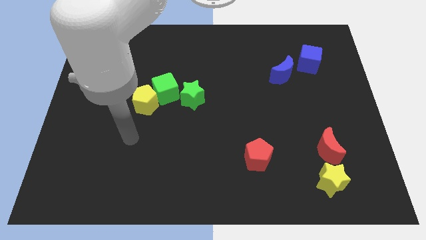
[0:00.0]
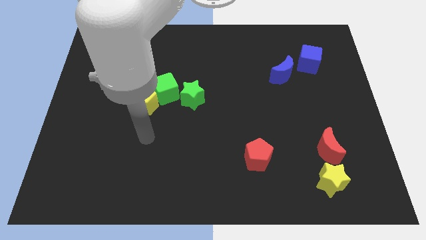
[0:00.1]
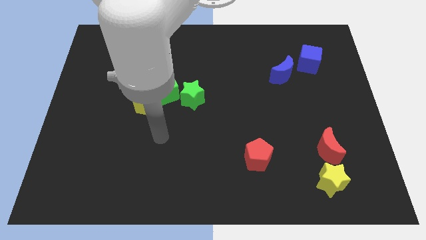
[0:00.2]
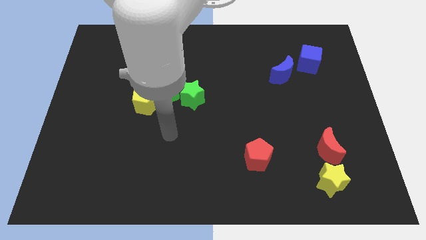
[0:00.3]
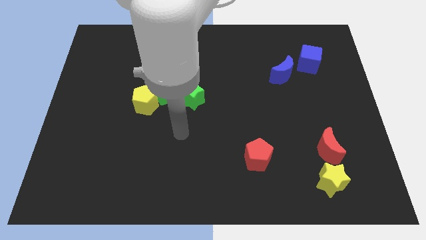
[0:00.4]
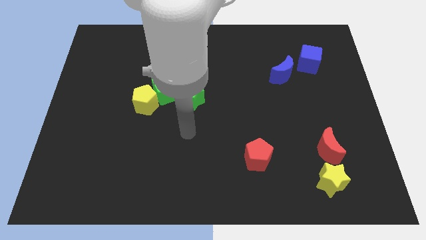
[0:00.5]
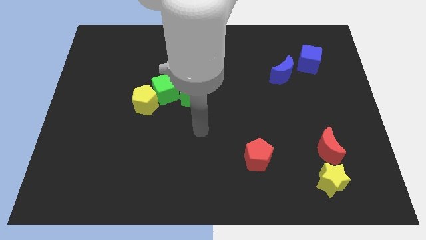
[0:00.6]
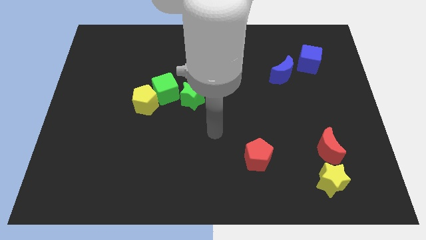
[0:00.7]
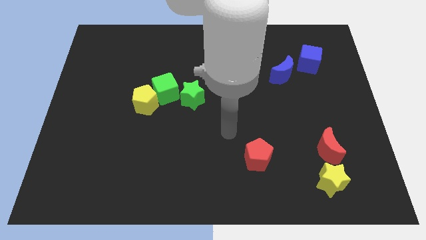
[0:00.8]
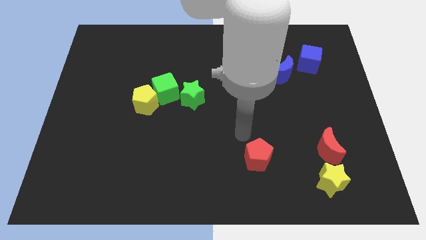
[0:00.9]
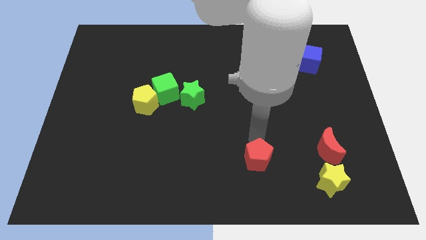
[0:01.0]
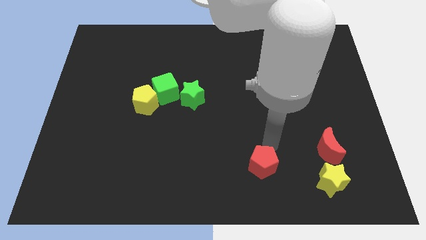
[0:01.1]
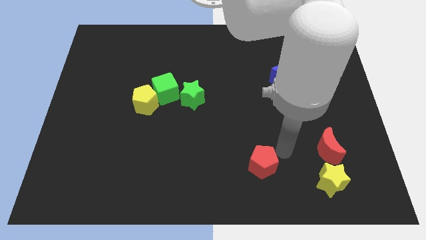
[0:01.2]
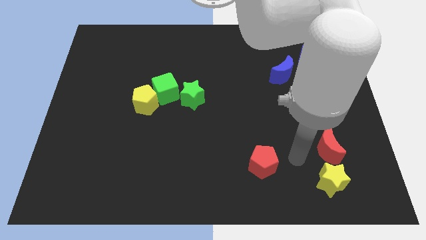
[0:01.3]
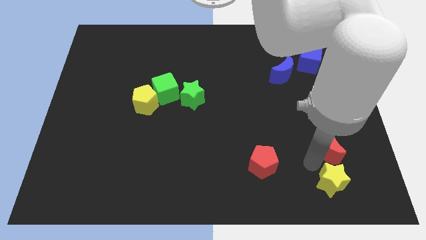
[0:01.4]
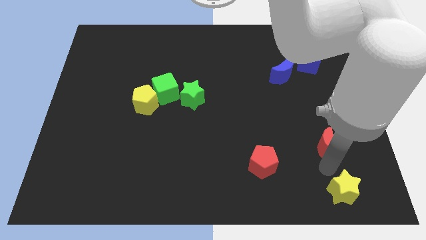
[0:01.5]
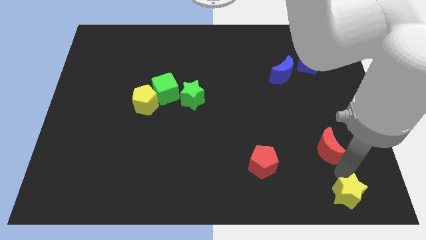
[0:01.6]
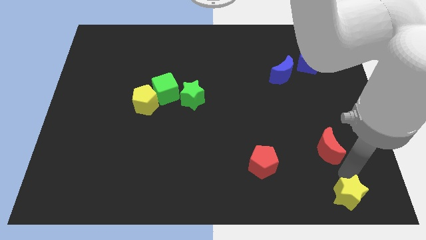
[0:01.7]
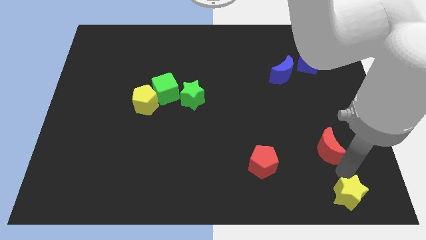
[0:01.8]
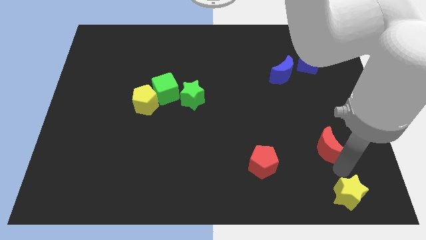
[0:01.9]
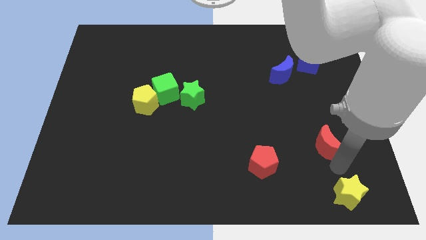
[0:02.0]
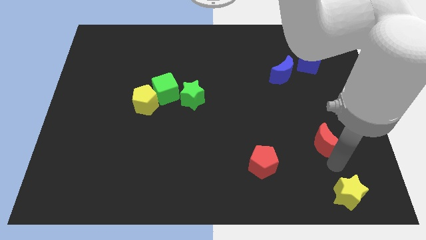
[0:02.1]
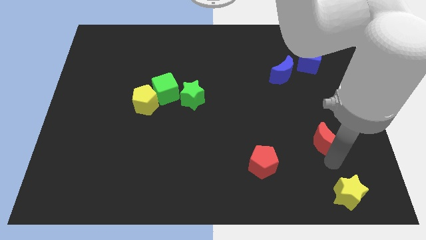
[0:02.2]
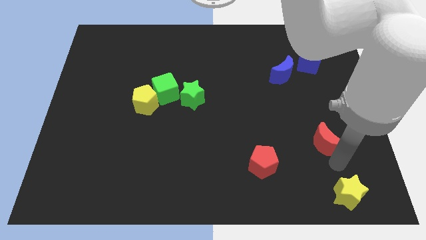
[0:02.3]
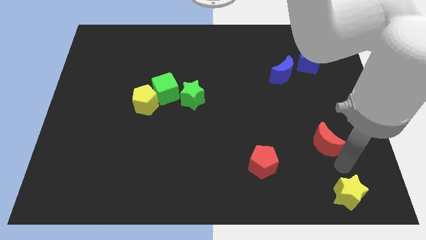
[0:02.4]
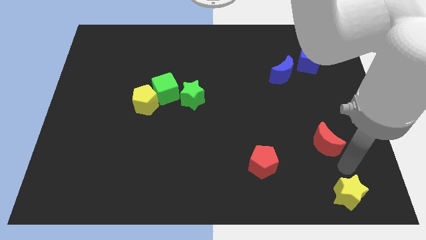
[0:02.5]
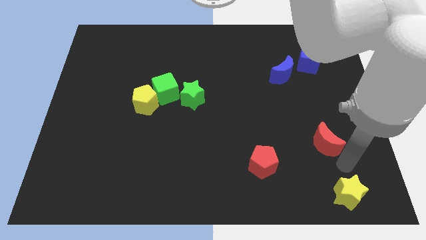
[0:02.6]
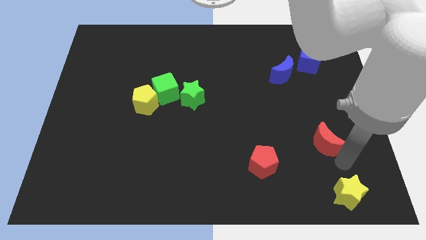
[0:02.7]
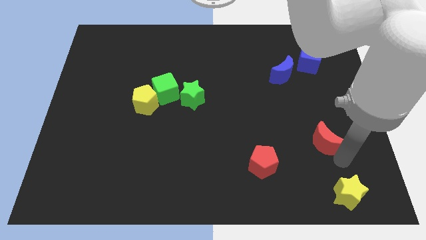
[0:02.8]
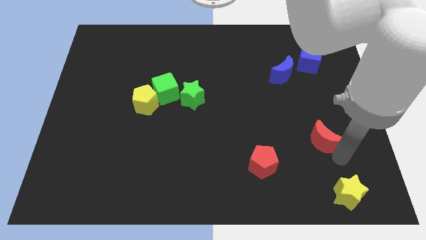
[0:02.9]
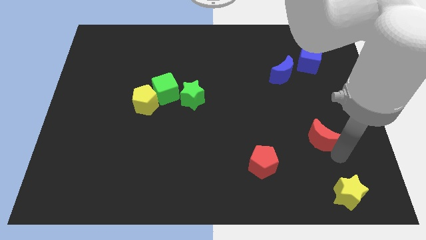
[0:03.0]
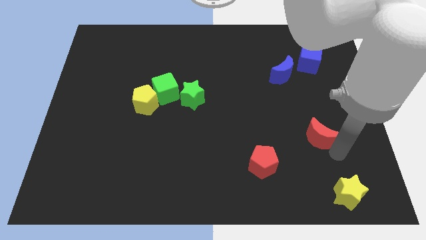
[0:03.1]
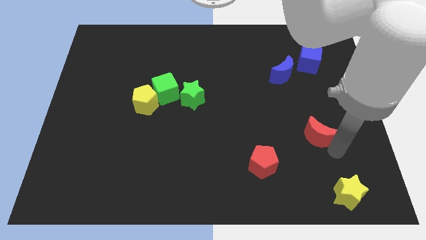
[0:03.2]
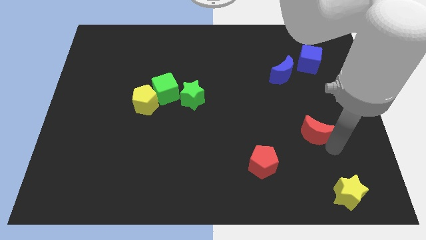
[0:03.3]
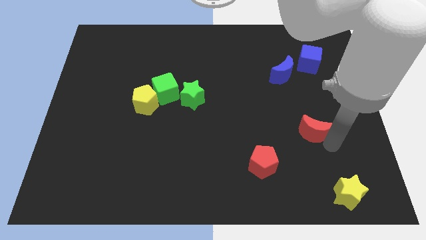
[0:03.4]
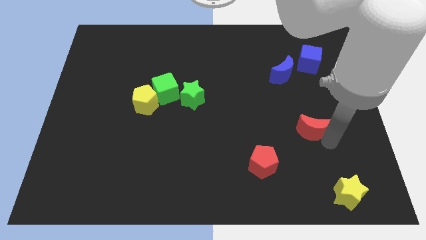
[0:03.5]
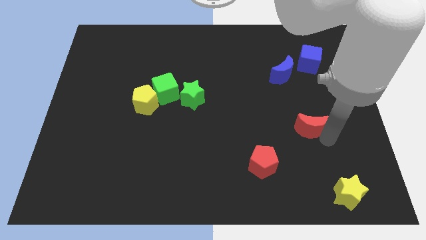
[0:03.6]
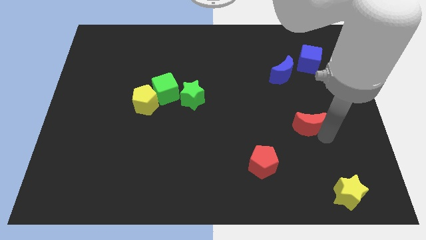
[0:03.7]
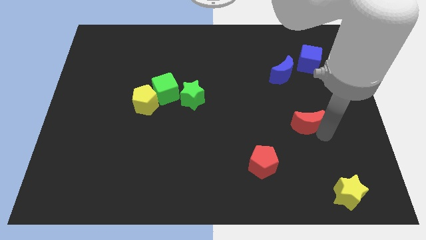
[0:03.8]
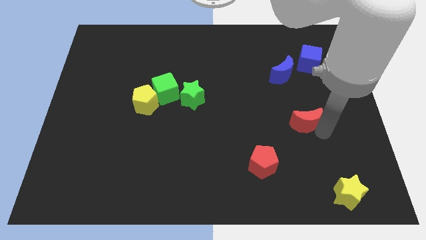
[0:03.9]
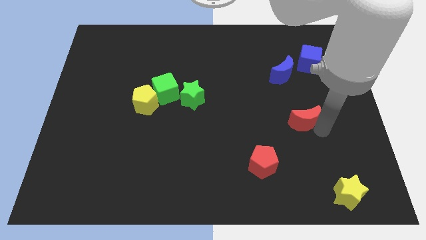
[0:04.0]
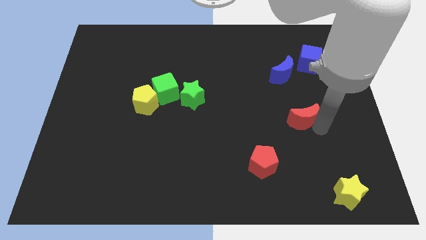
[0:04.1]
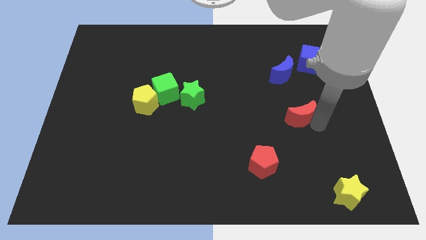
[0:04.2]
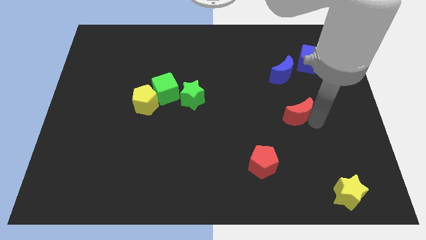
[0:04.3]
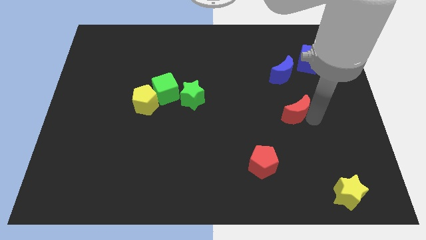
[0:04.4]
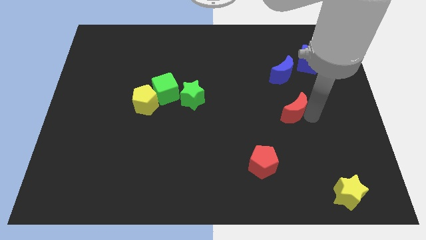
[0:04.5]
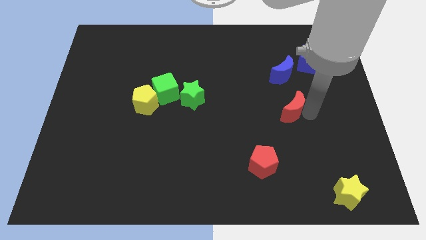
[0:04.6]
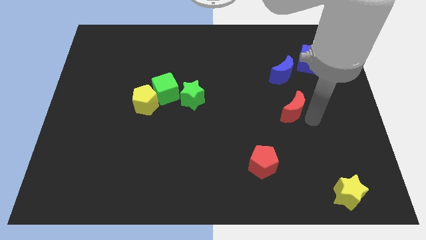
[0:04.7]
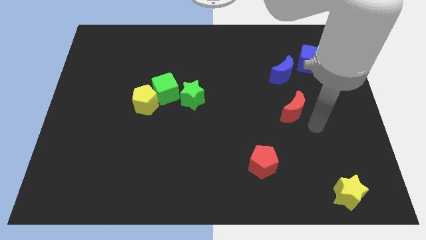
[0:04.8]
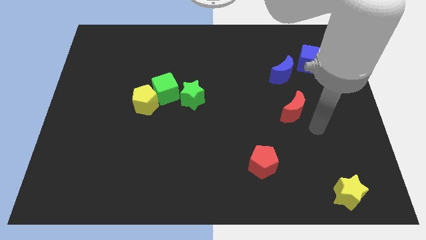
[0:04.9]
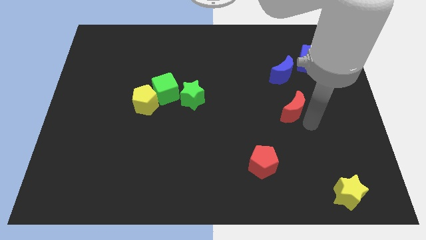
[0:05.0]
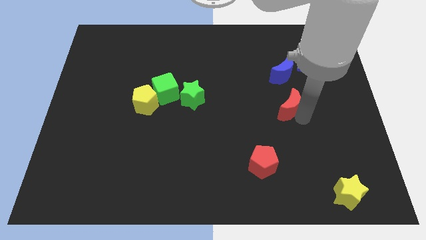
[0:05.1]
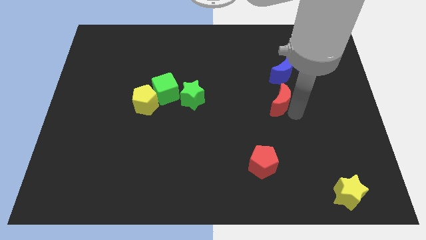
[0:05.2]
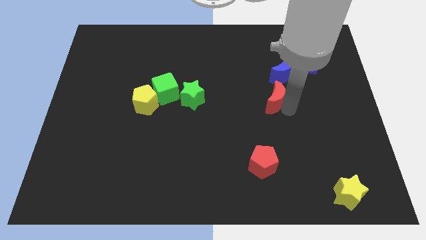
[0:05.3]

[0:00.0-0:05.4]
put the red moon to the bottom left of the blue moon

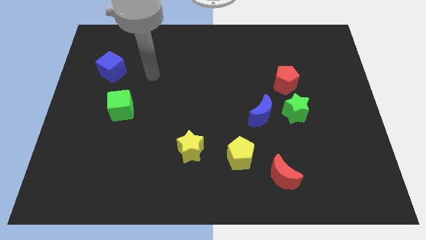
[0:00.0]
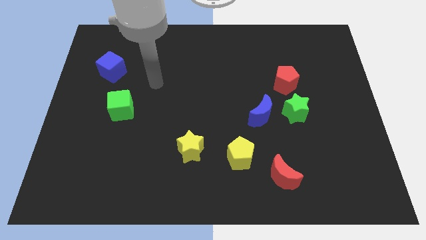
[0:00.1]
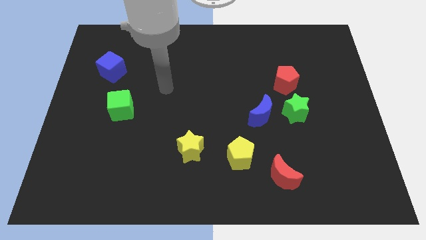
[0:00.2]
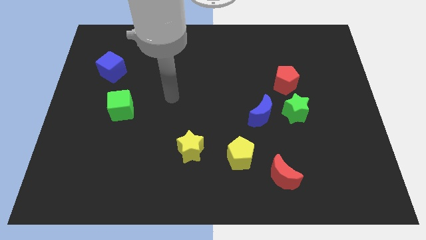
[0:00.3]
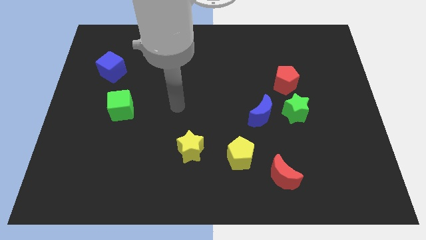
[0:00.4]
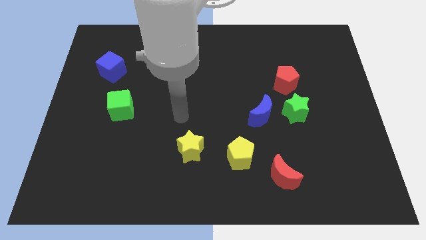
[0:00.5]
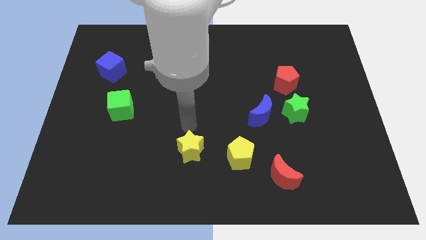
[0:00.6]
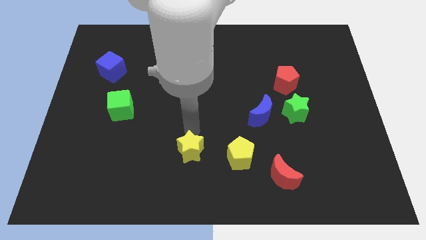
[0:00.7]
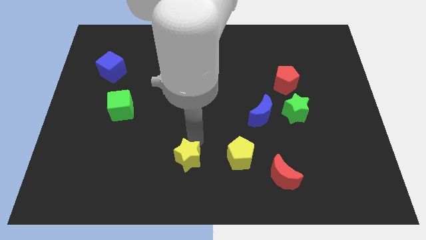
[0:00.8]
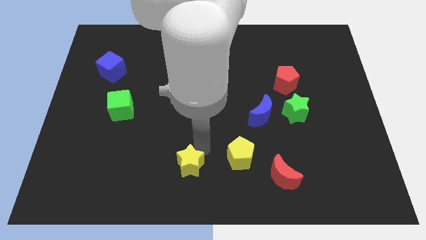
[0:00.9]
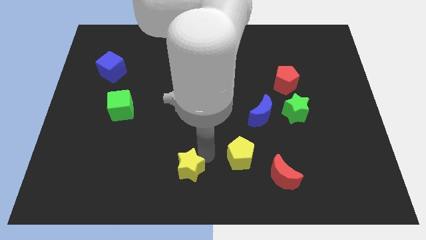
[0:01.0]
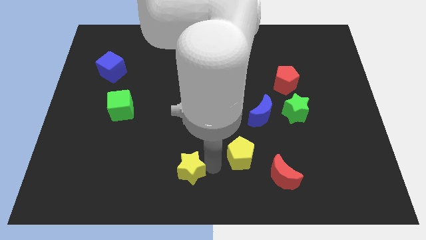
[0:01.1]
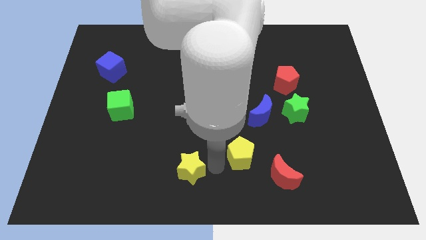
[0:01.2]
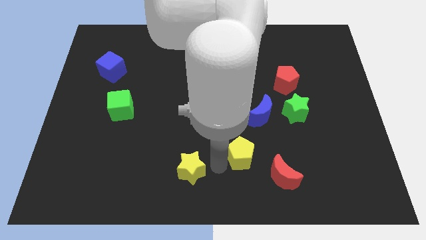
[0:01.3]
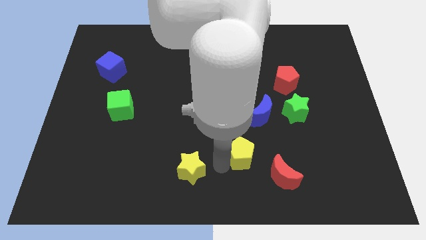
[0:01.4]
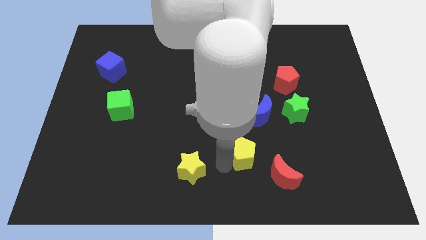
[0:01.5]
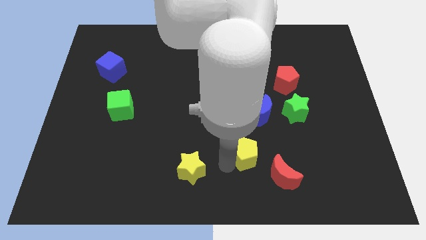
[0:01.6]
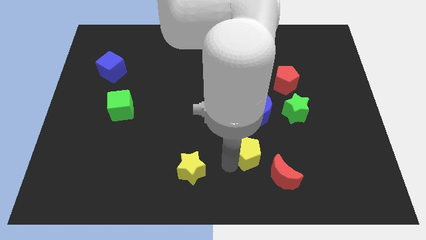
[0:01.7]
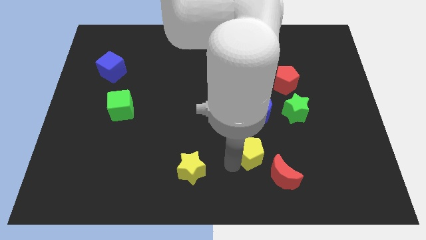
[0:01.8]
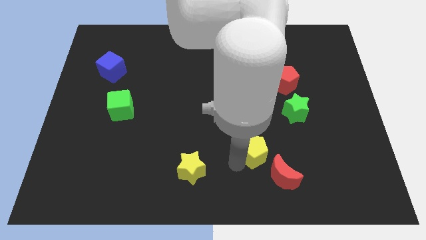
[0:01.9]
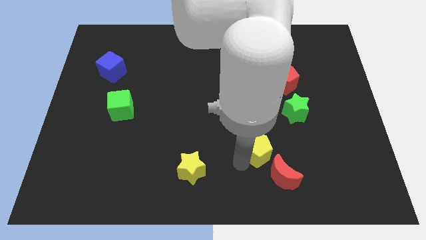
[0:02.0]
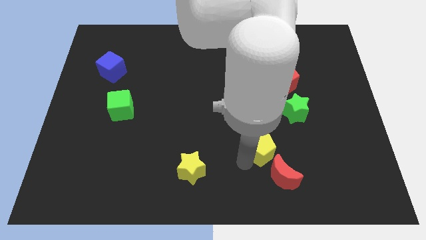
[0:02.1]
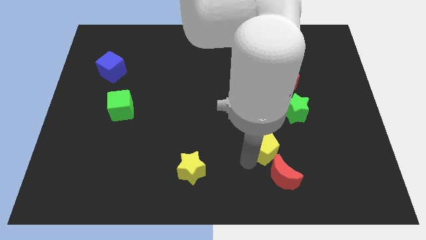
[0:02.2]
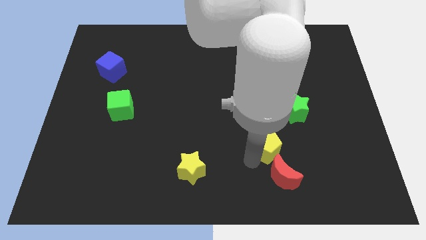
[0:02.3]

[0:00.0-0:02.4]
move the yellow pentagon diagonally down and to the left of the green star
